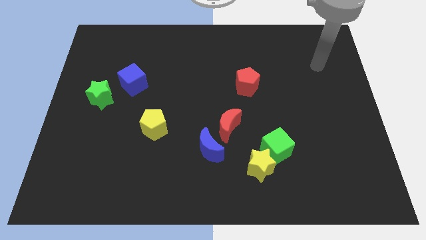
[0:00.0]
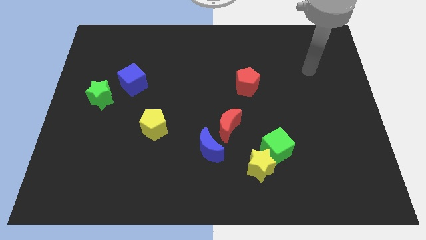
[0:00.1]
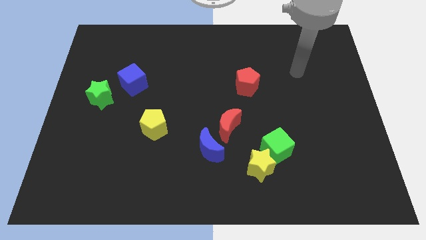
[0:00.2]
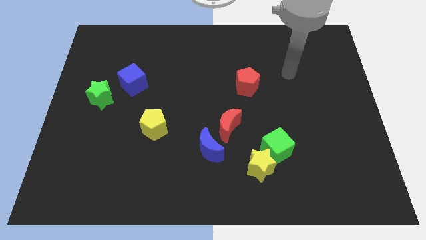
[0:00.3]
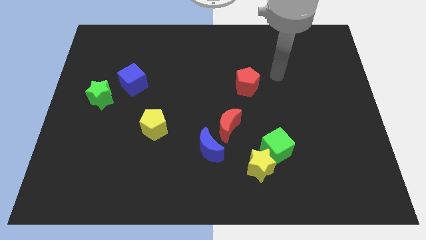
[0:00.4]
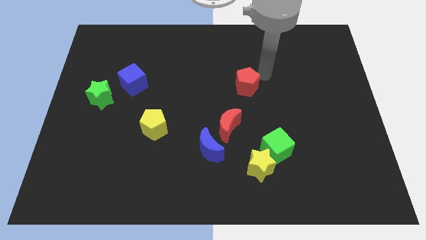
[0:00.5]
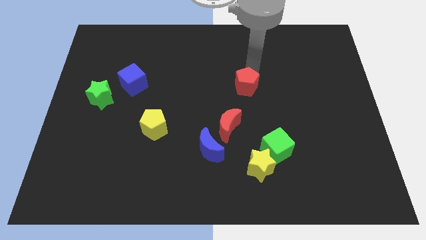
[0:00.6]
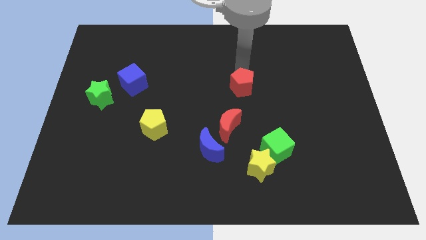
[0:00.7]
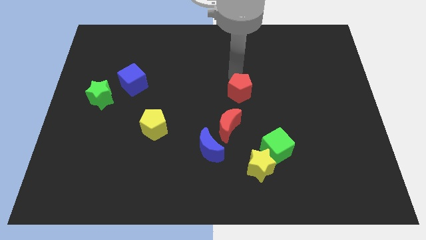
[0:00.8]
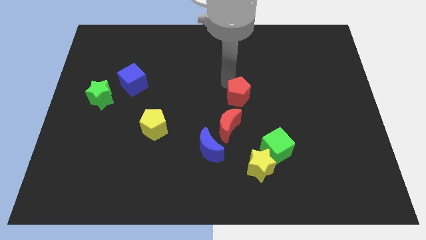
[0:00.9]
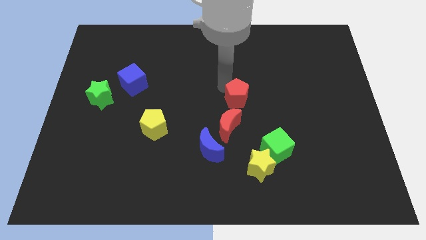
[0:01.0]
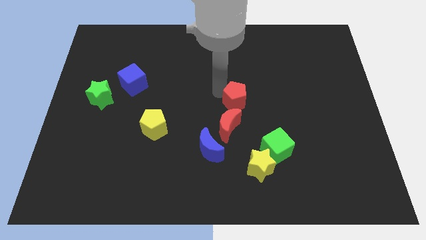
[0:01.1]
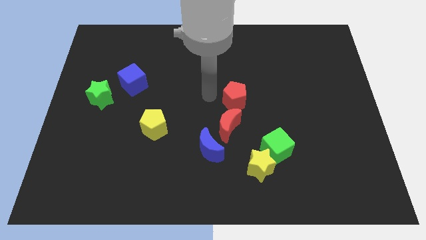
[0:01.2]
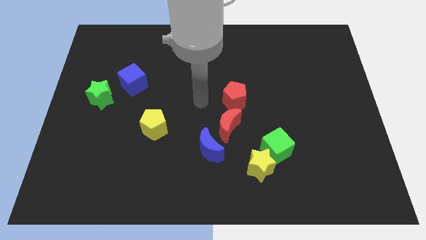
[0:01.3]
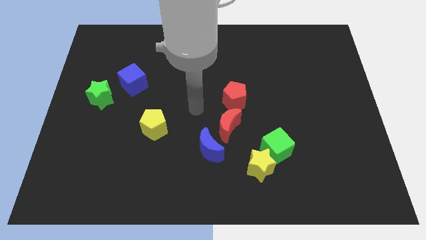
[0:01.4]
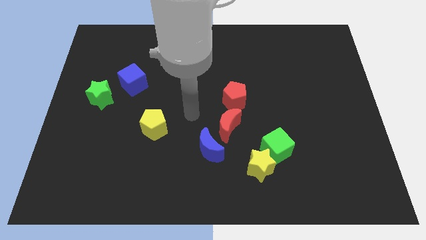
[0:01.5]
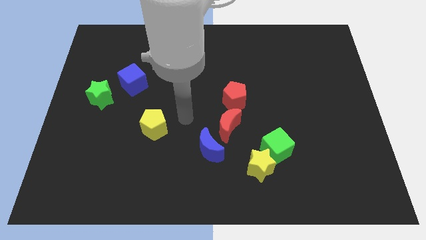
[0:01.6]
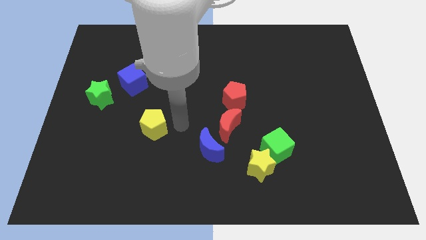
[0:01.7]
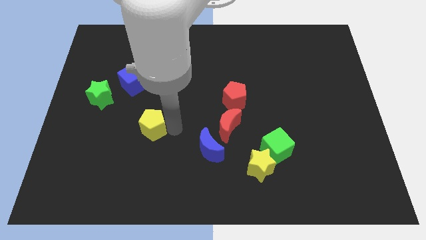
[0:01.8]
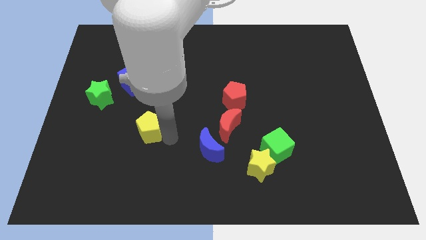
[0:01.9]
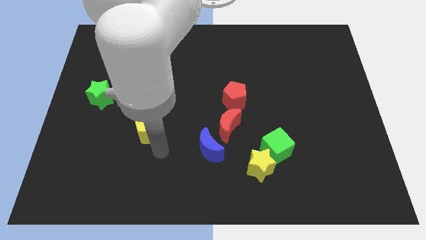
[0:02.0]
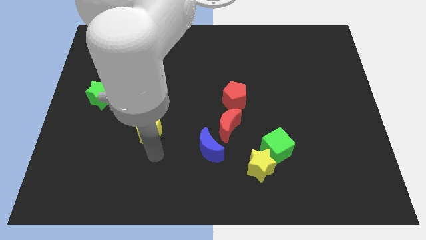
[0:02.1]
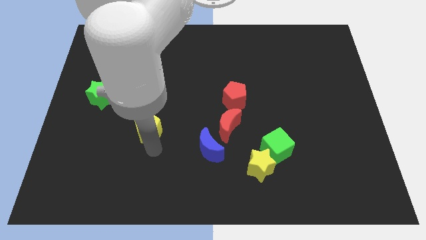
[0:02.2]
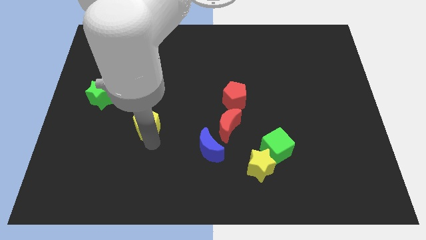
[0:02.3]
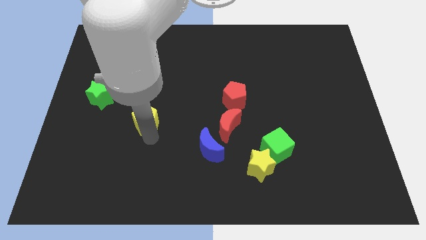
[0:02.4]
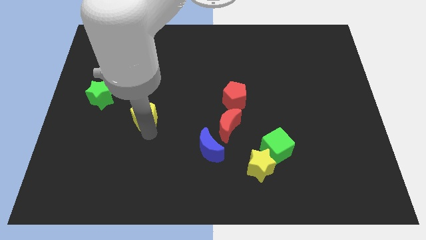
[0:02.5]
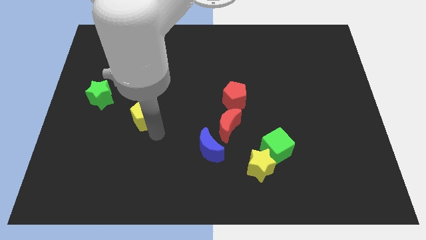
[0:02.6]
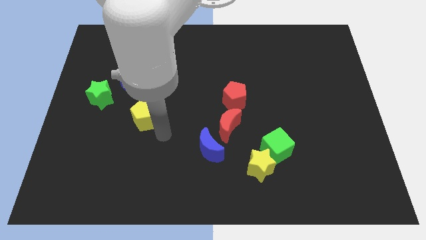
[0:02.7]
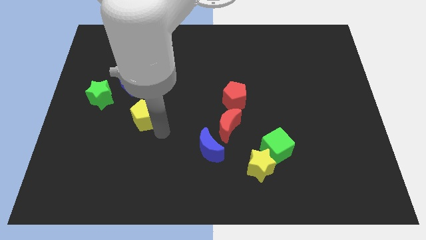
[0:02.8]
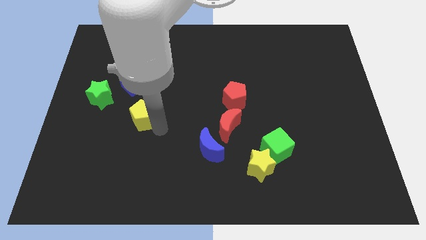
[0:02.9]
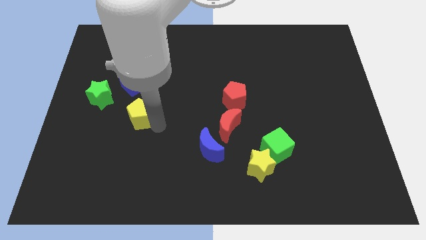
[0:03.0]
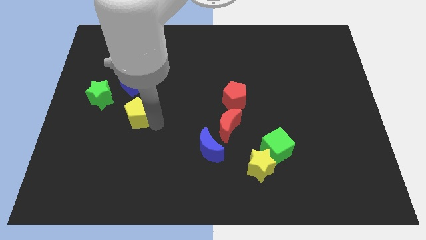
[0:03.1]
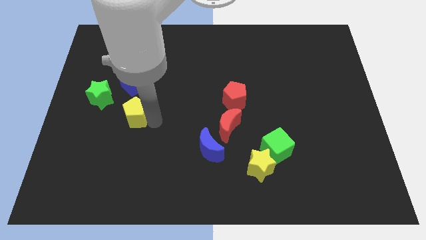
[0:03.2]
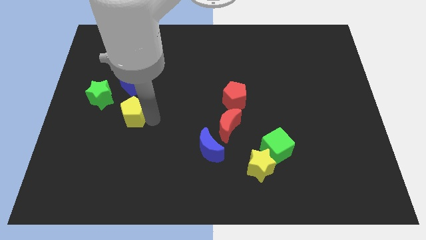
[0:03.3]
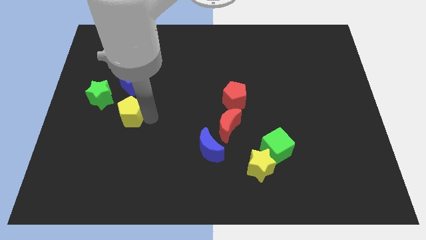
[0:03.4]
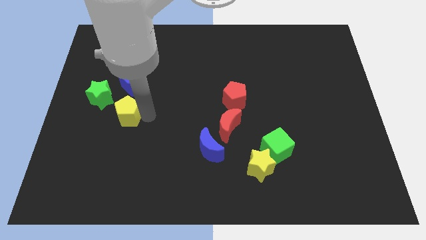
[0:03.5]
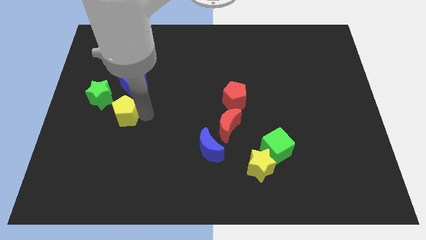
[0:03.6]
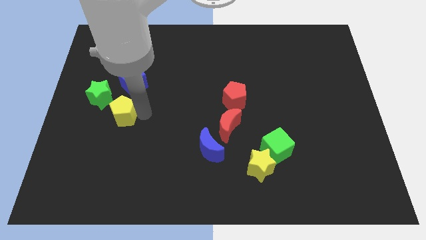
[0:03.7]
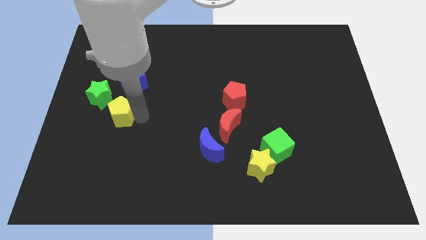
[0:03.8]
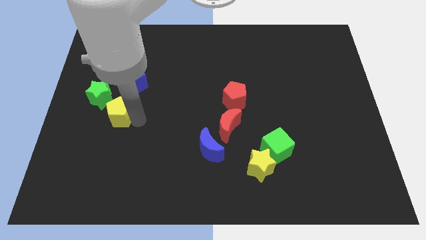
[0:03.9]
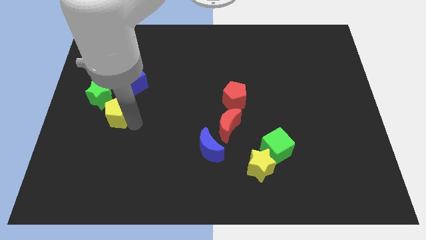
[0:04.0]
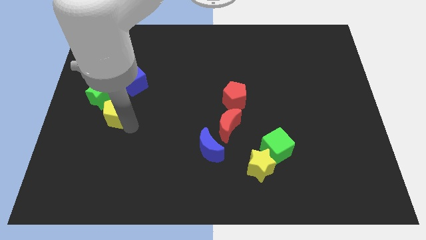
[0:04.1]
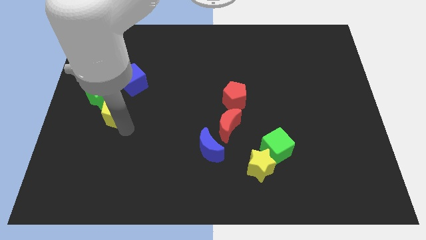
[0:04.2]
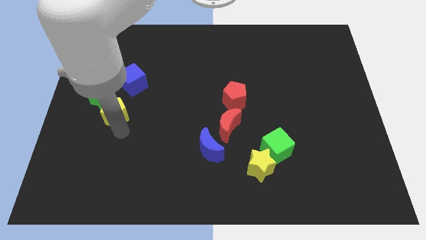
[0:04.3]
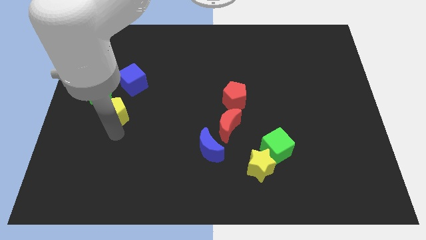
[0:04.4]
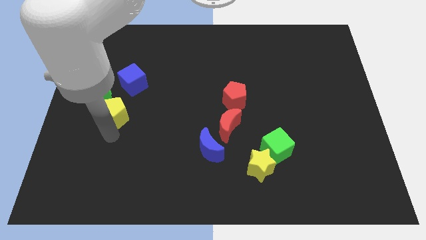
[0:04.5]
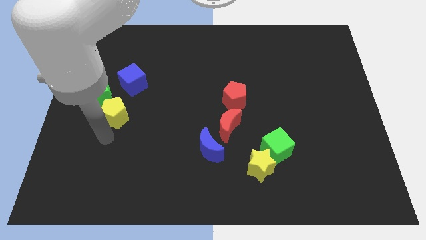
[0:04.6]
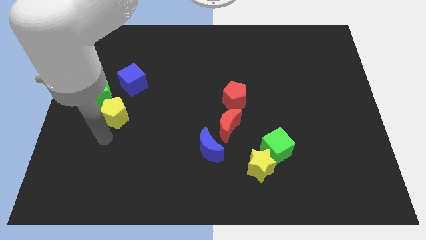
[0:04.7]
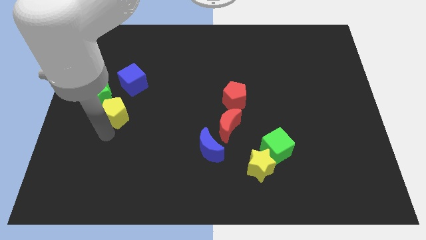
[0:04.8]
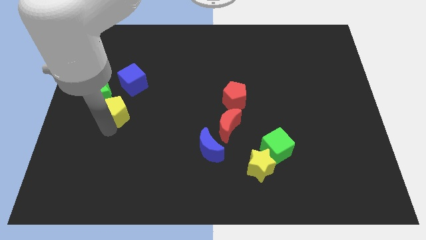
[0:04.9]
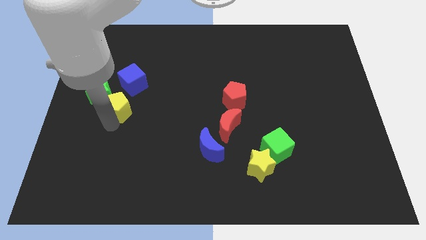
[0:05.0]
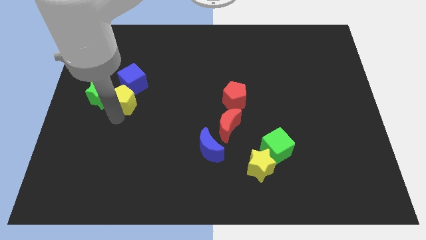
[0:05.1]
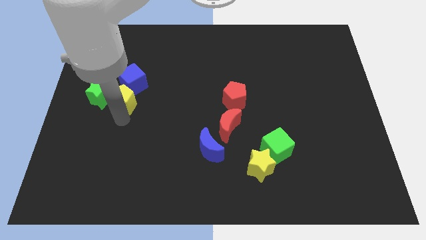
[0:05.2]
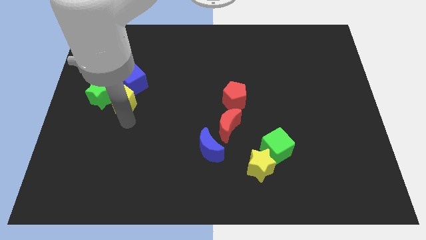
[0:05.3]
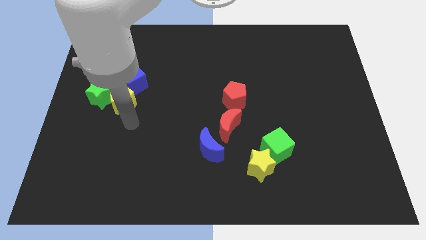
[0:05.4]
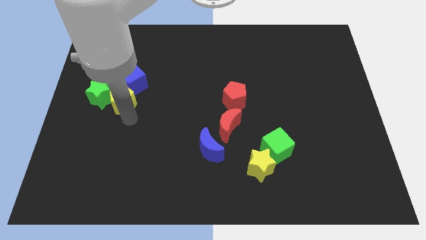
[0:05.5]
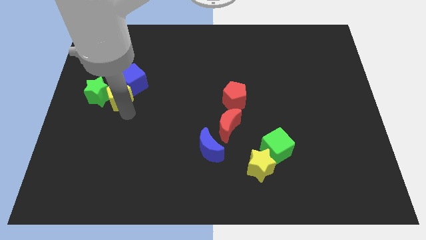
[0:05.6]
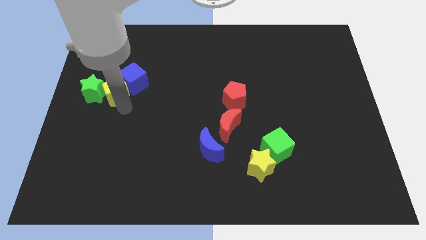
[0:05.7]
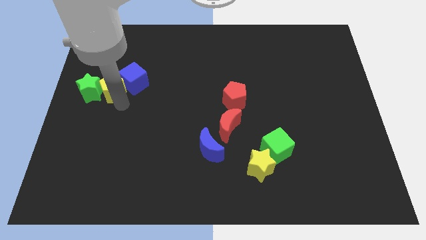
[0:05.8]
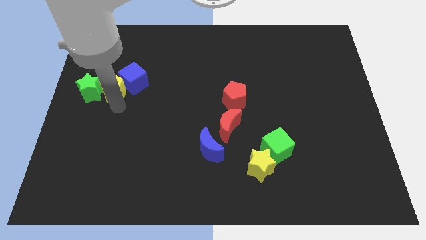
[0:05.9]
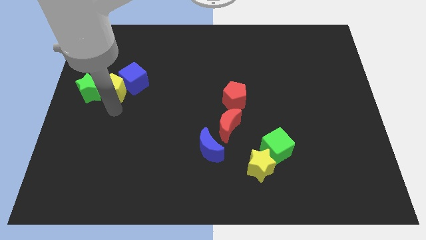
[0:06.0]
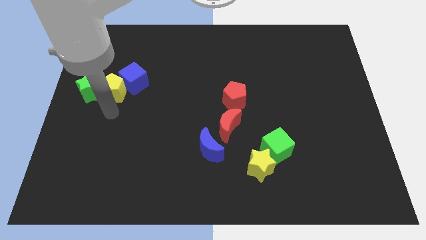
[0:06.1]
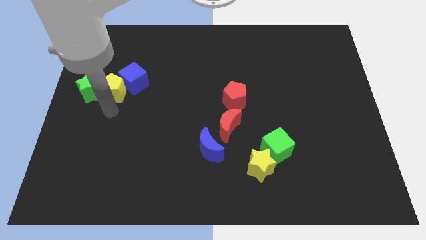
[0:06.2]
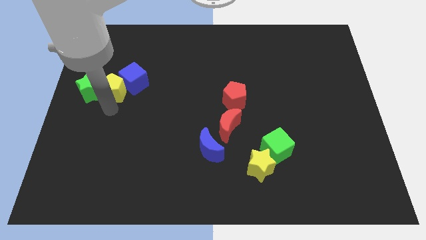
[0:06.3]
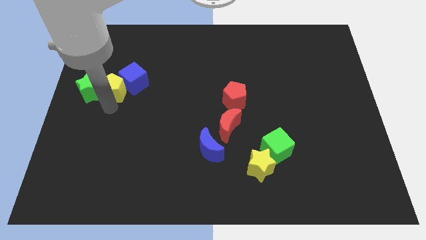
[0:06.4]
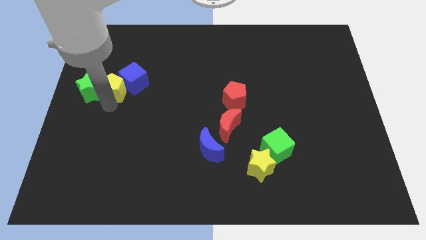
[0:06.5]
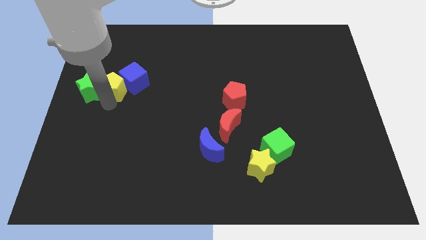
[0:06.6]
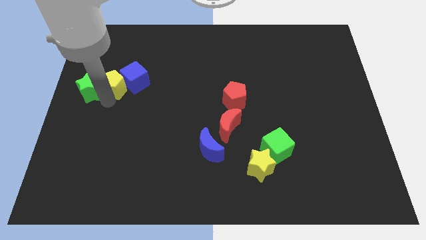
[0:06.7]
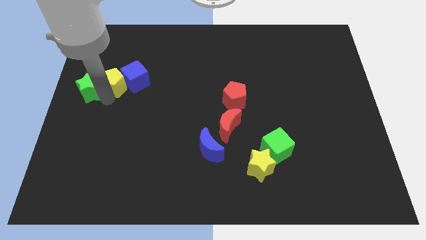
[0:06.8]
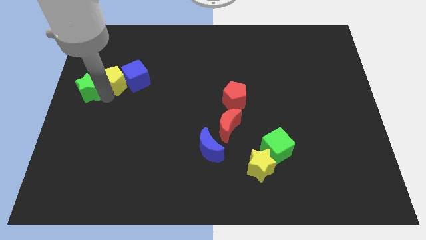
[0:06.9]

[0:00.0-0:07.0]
push the yellow pentagon to the top left of the blue cube
